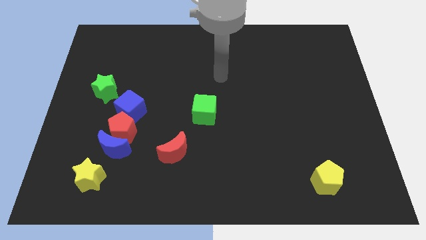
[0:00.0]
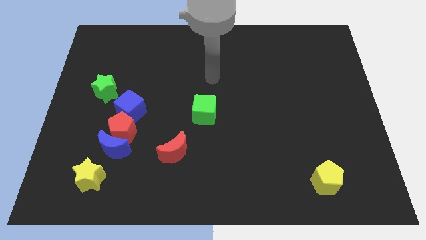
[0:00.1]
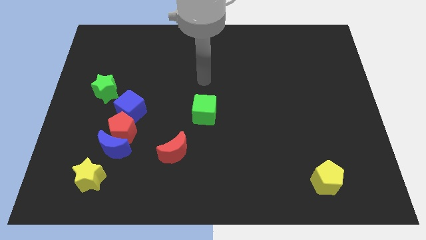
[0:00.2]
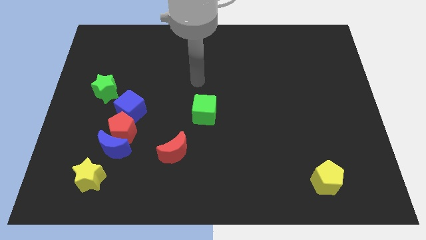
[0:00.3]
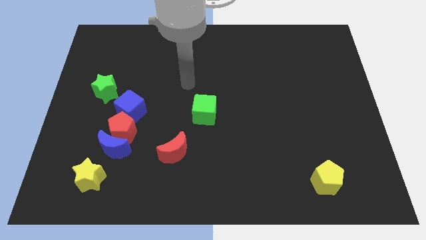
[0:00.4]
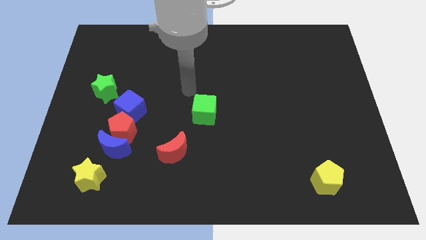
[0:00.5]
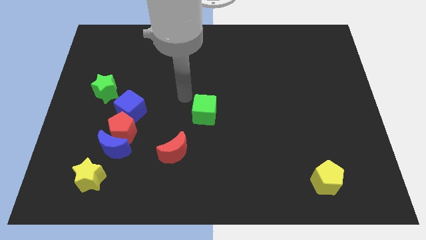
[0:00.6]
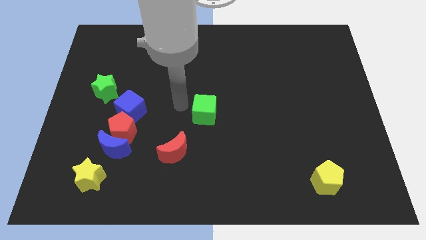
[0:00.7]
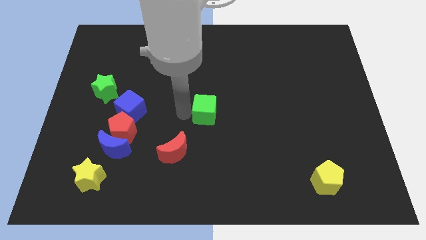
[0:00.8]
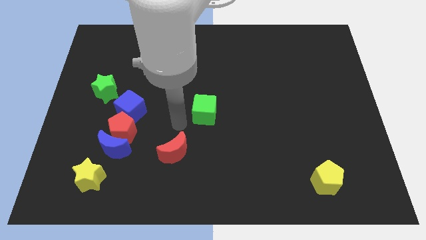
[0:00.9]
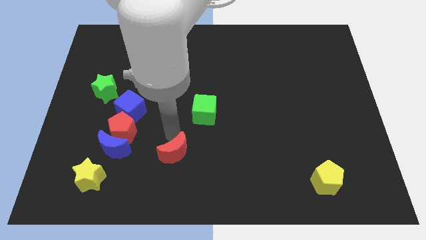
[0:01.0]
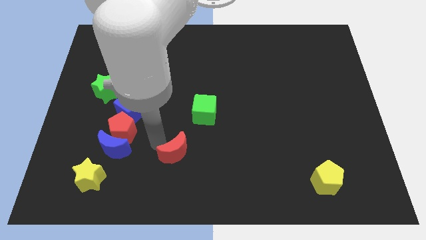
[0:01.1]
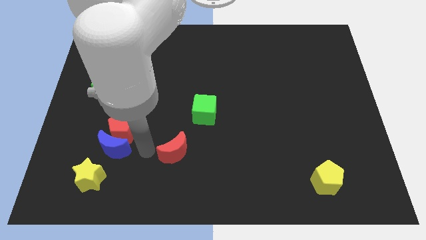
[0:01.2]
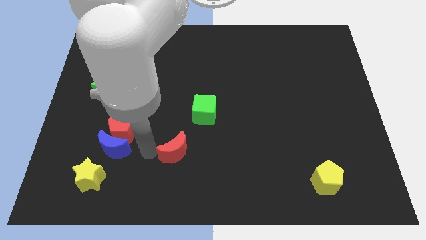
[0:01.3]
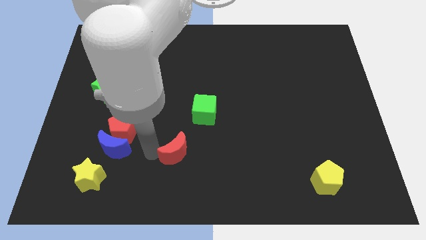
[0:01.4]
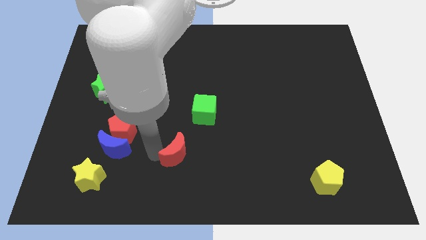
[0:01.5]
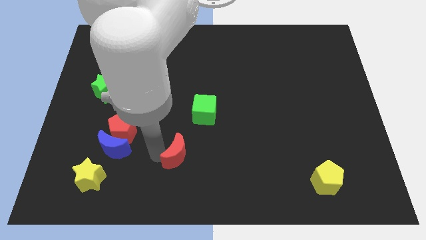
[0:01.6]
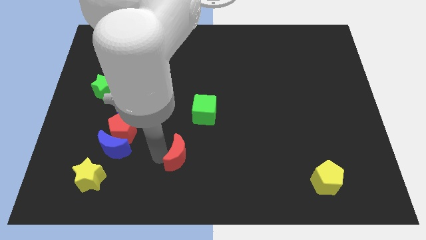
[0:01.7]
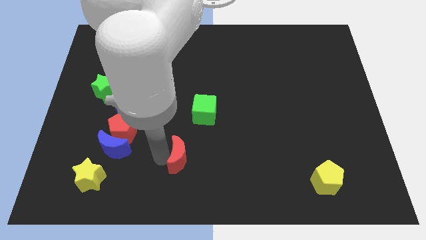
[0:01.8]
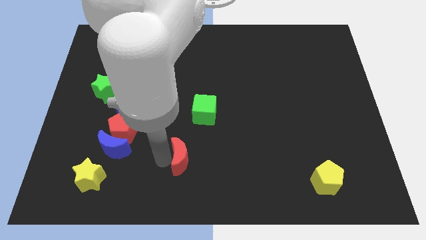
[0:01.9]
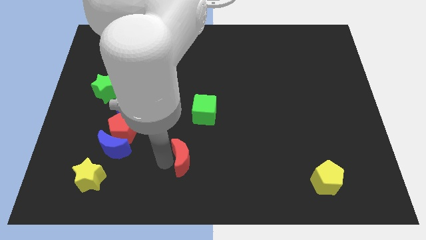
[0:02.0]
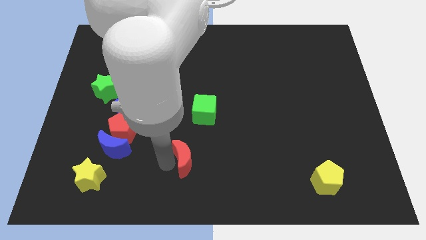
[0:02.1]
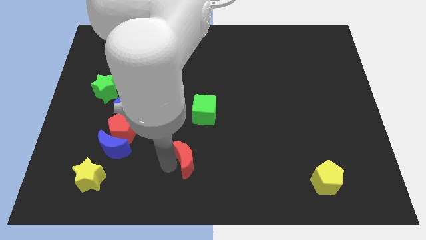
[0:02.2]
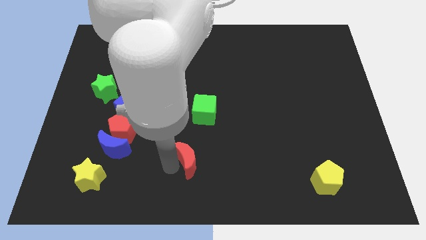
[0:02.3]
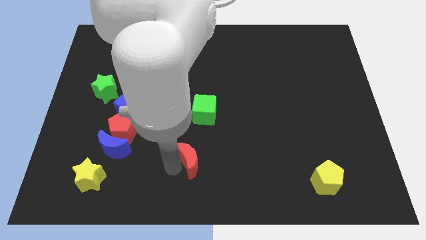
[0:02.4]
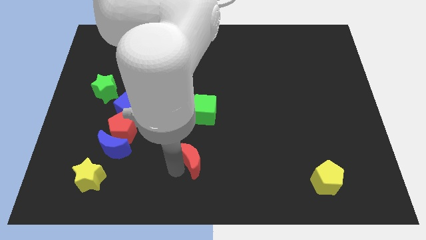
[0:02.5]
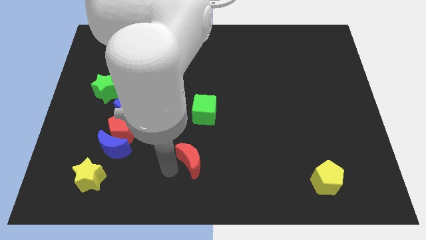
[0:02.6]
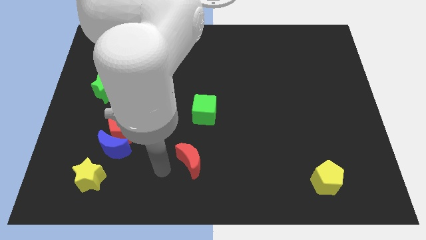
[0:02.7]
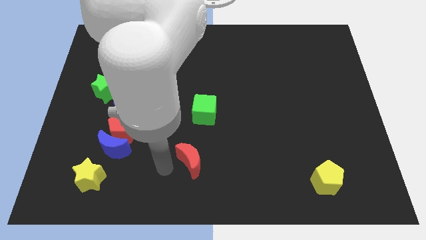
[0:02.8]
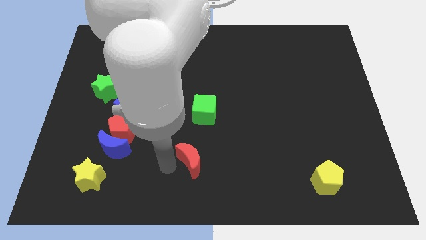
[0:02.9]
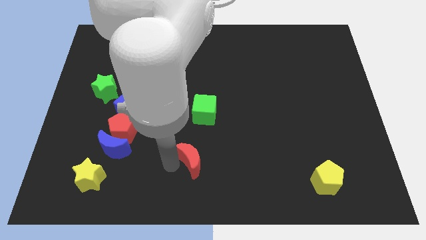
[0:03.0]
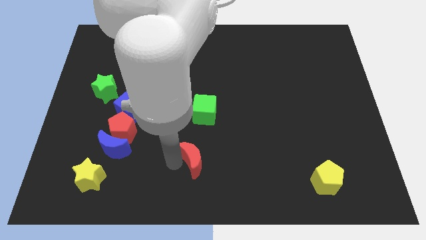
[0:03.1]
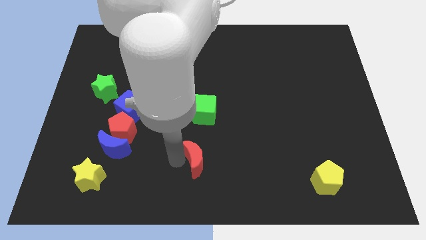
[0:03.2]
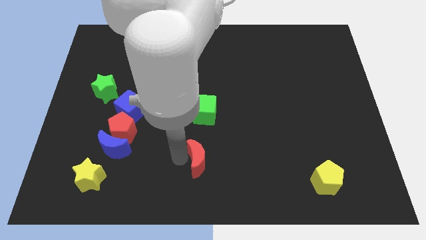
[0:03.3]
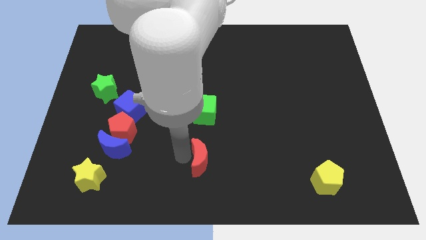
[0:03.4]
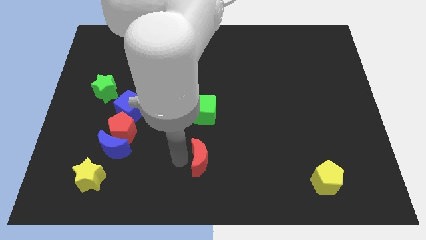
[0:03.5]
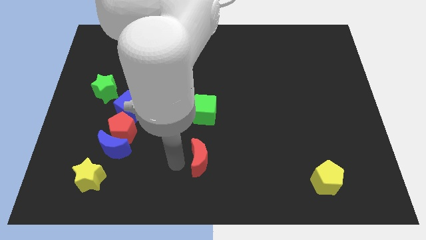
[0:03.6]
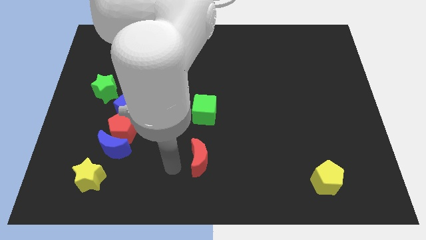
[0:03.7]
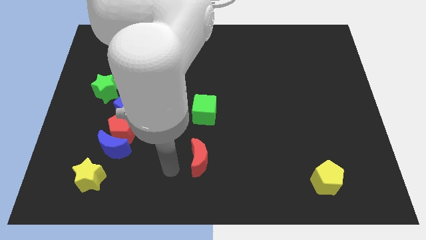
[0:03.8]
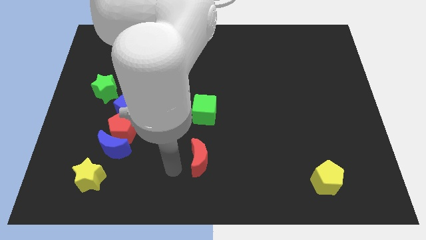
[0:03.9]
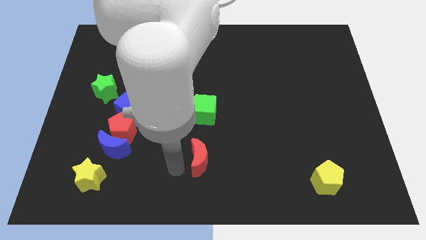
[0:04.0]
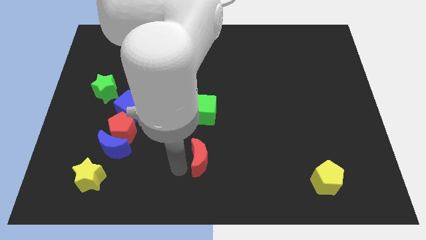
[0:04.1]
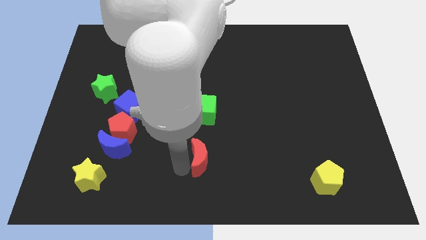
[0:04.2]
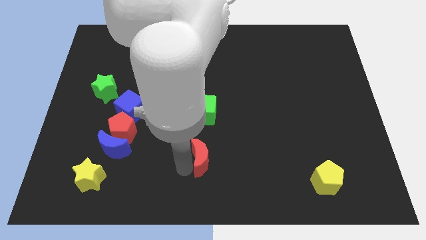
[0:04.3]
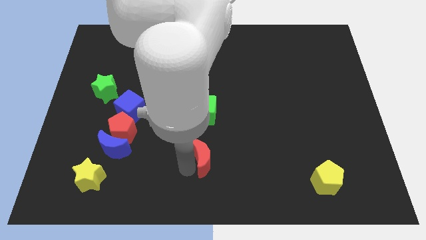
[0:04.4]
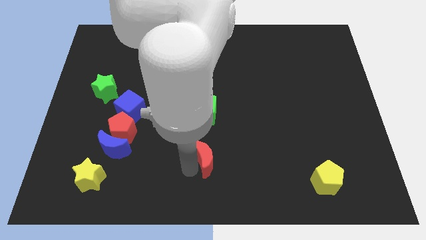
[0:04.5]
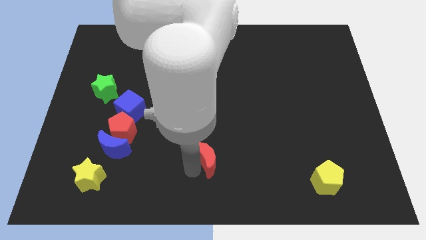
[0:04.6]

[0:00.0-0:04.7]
move the red moon to the right a little

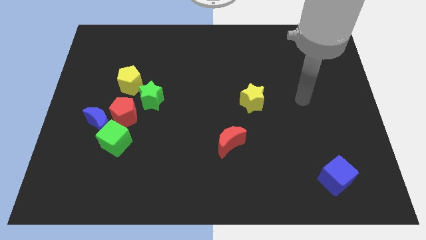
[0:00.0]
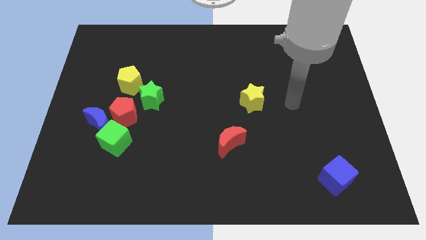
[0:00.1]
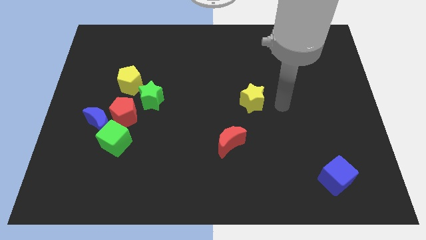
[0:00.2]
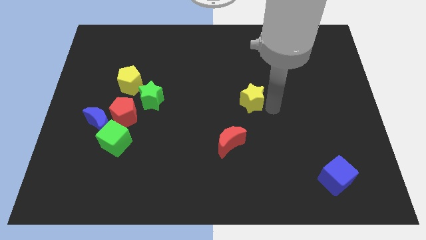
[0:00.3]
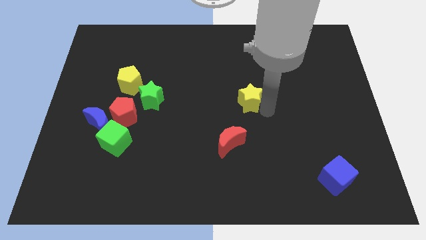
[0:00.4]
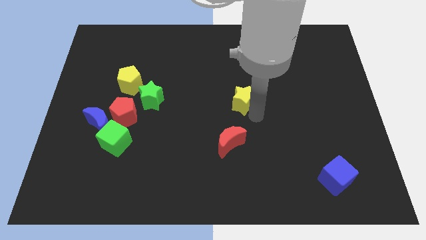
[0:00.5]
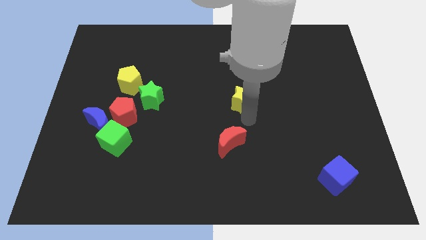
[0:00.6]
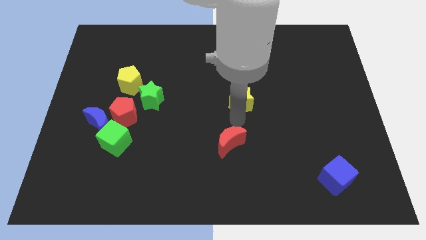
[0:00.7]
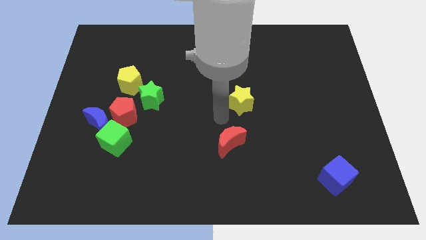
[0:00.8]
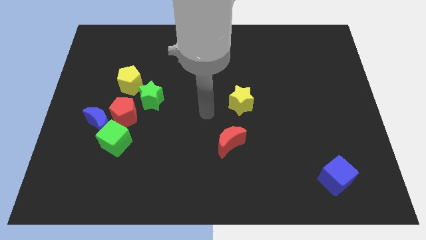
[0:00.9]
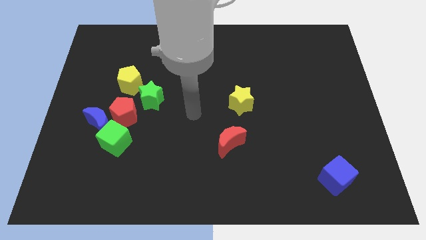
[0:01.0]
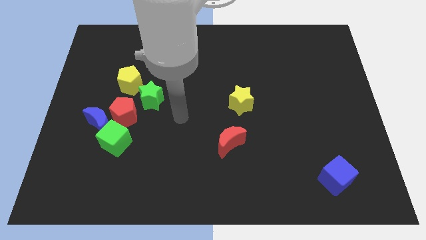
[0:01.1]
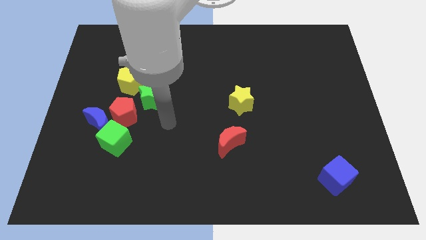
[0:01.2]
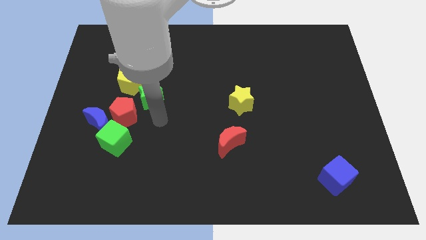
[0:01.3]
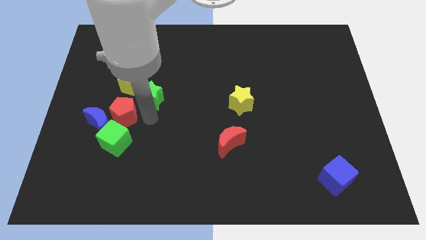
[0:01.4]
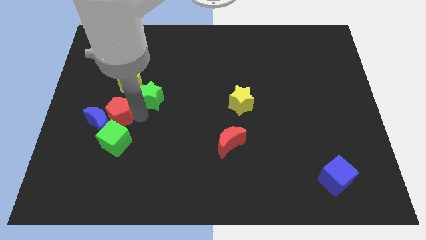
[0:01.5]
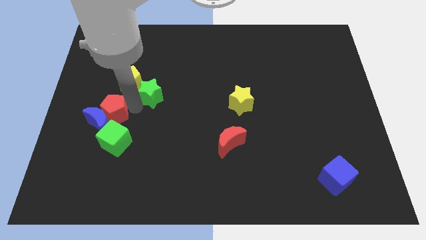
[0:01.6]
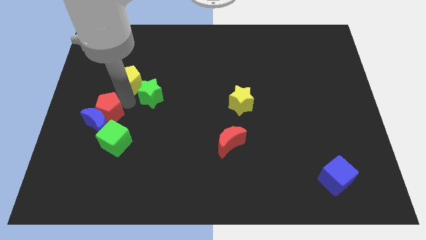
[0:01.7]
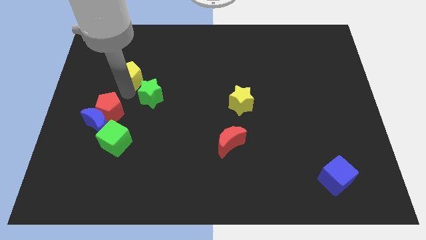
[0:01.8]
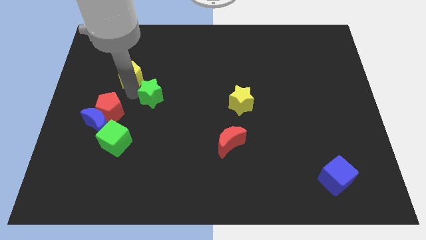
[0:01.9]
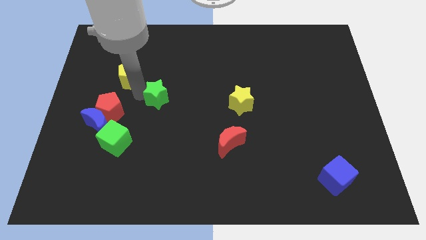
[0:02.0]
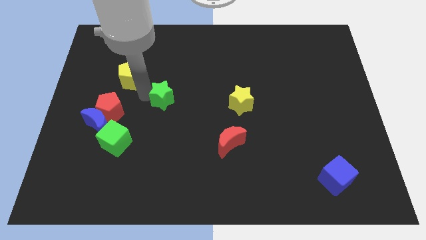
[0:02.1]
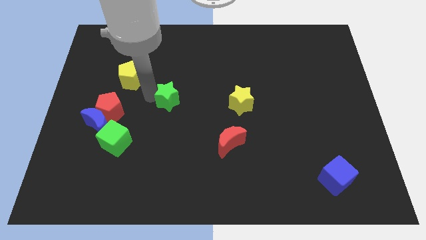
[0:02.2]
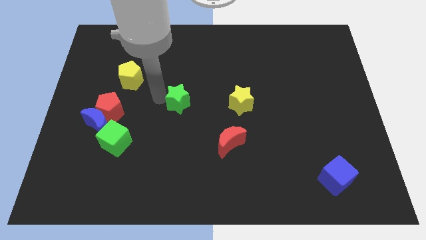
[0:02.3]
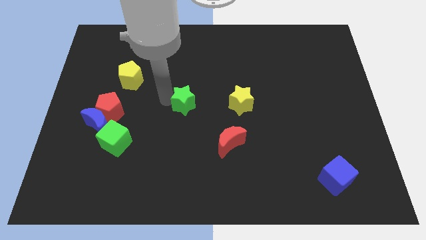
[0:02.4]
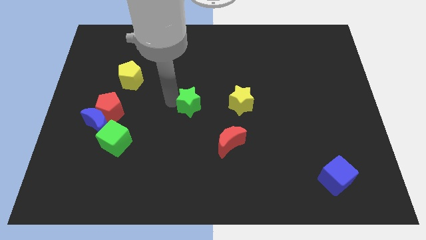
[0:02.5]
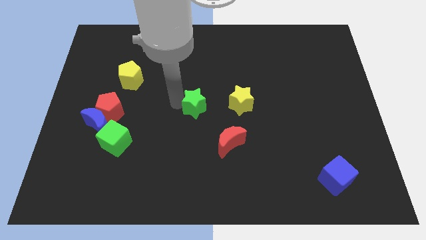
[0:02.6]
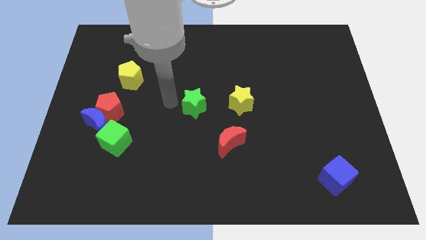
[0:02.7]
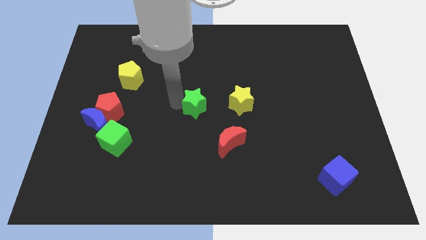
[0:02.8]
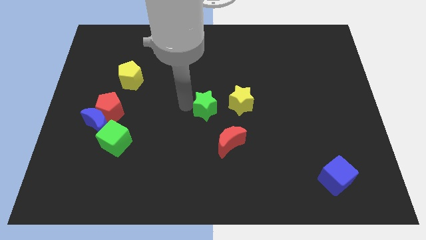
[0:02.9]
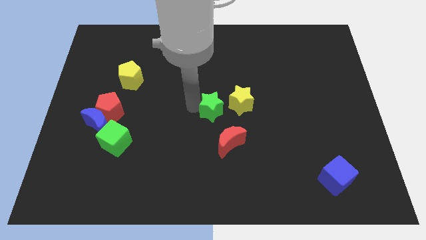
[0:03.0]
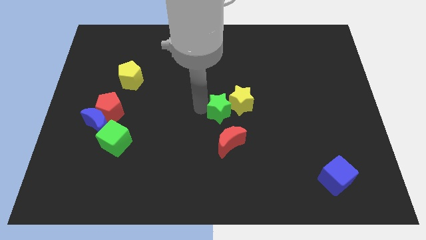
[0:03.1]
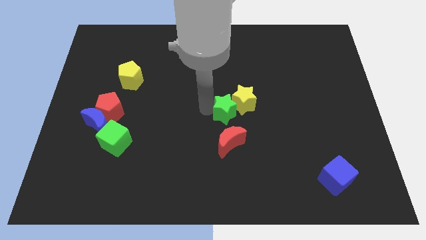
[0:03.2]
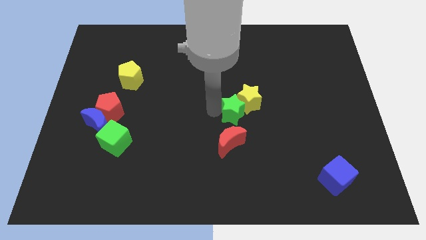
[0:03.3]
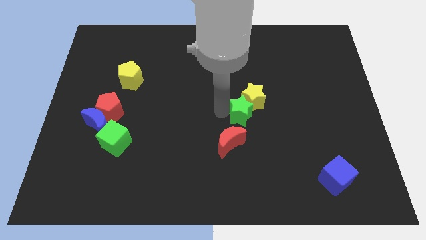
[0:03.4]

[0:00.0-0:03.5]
slide the green star right
